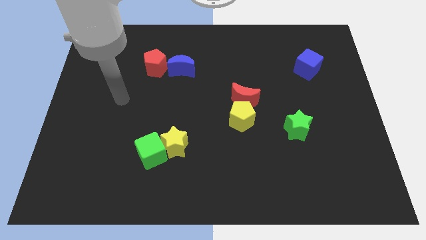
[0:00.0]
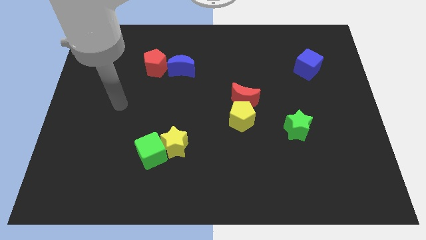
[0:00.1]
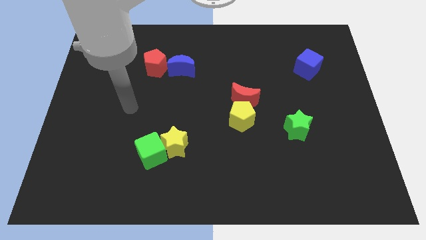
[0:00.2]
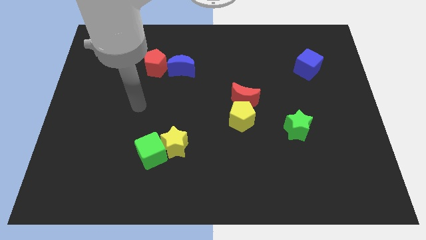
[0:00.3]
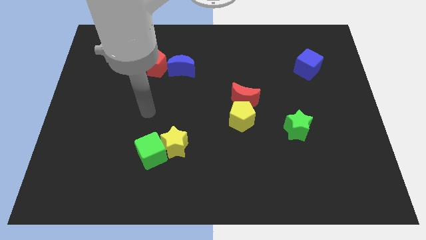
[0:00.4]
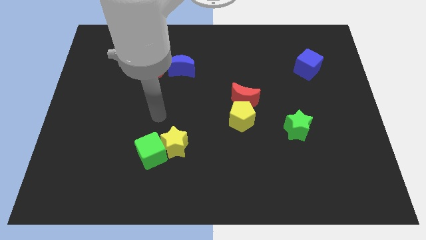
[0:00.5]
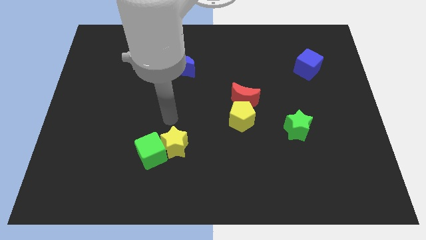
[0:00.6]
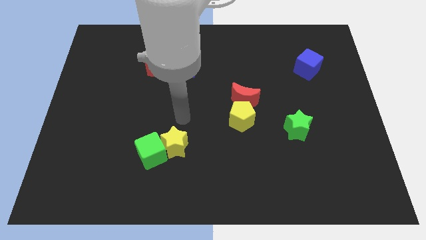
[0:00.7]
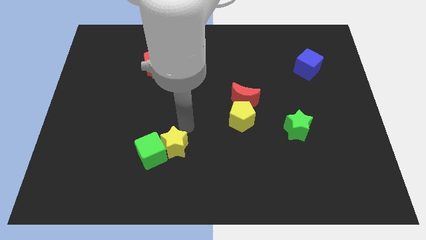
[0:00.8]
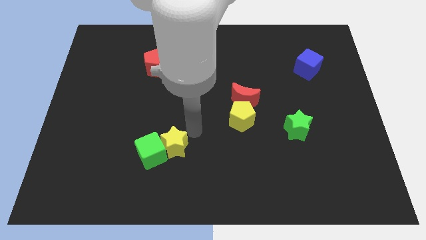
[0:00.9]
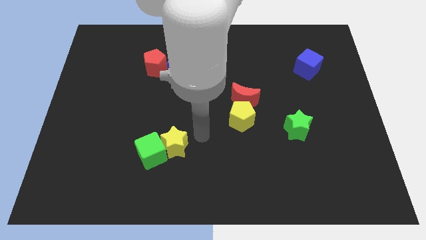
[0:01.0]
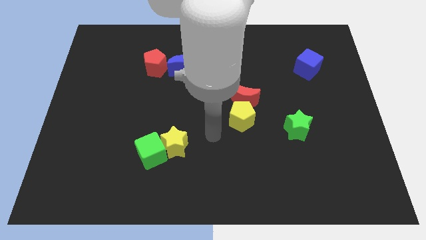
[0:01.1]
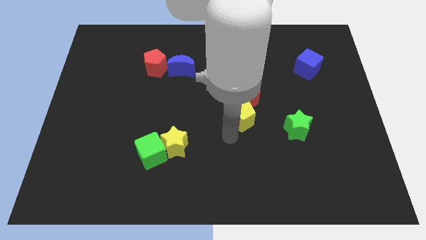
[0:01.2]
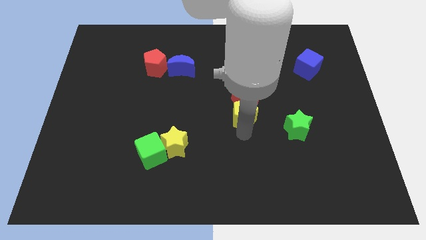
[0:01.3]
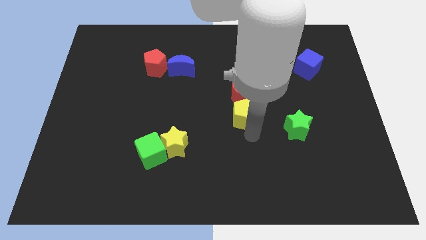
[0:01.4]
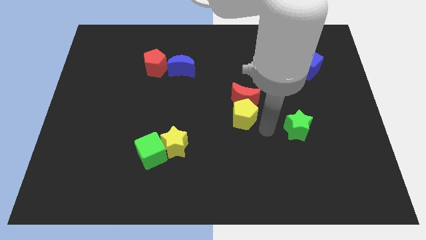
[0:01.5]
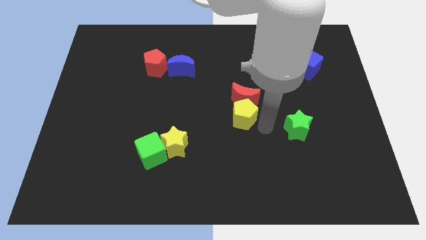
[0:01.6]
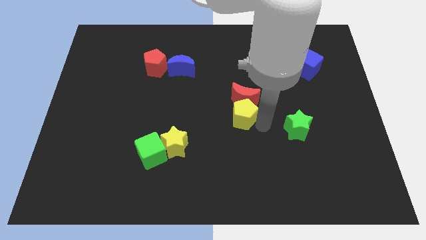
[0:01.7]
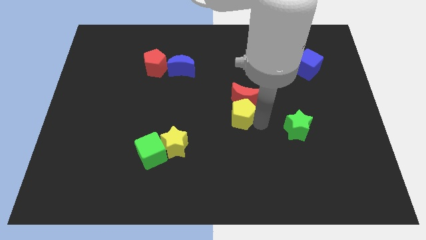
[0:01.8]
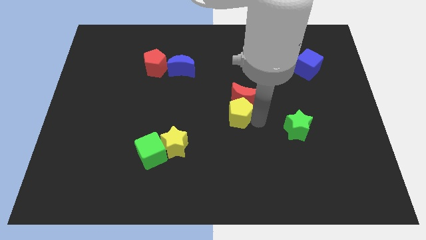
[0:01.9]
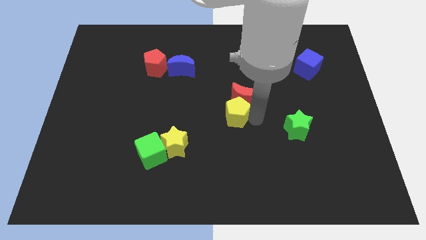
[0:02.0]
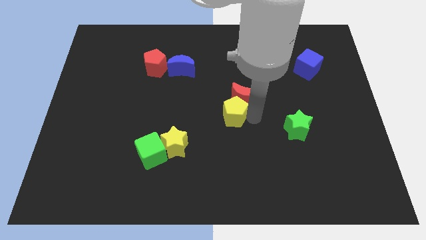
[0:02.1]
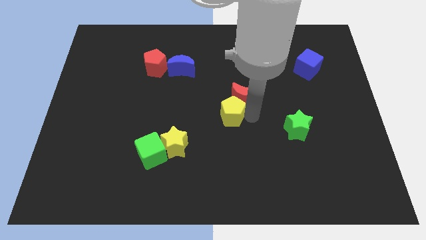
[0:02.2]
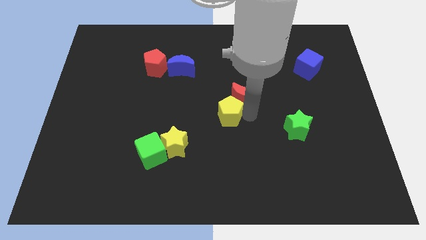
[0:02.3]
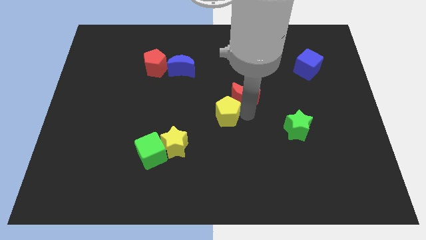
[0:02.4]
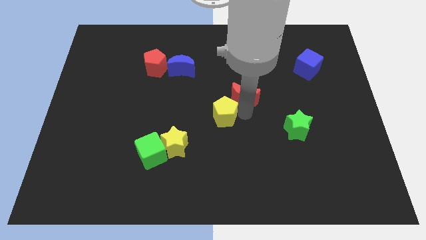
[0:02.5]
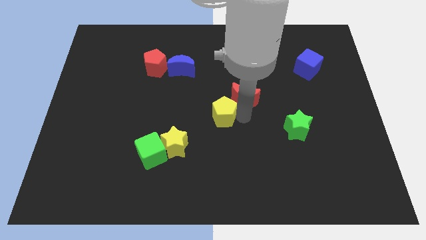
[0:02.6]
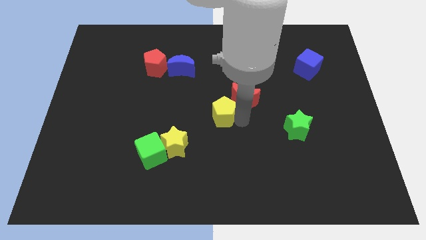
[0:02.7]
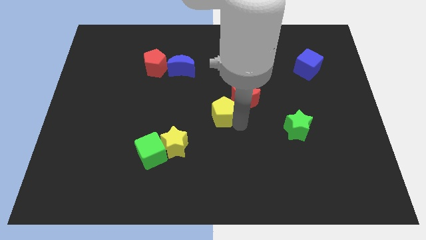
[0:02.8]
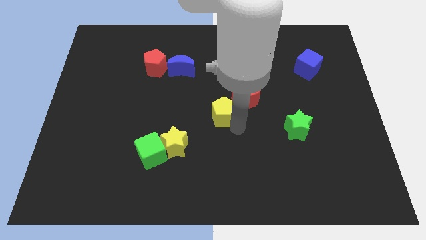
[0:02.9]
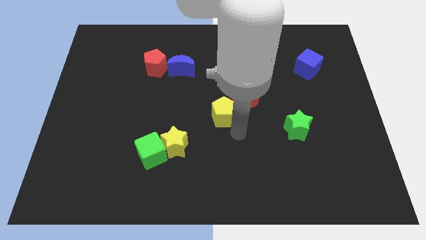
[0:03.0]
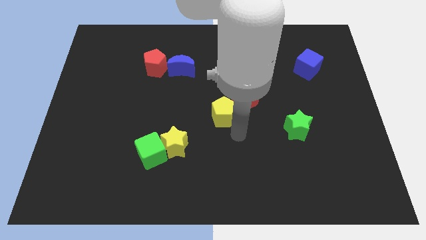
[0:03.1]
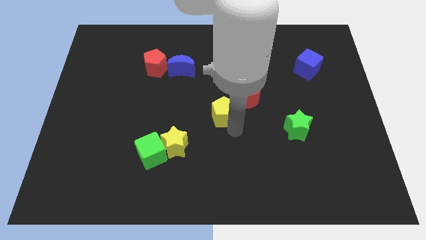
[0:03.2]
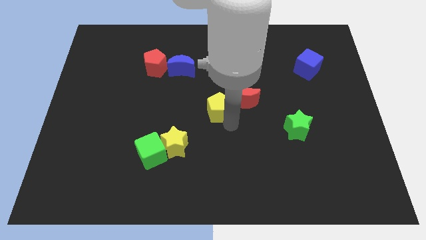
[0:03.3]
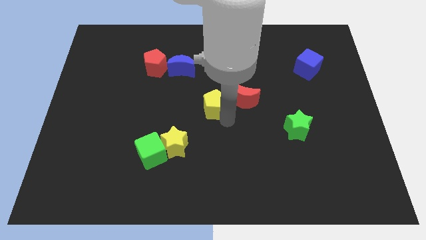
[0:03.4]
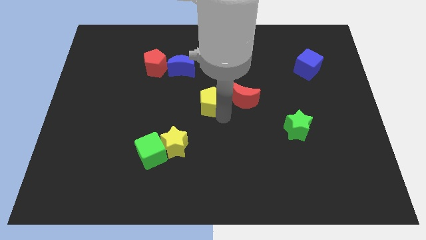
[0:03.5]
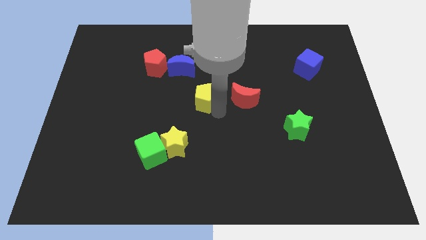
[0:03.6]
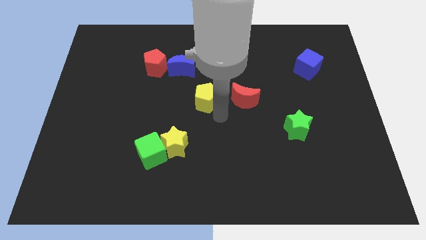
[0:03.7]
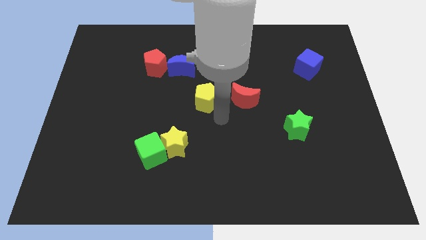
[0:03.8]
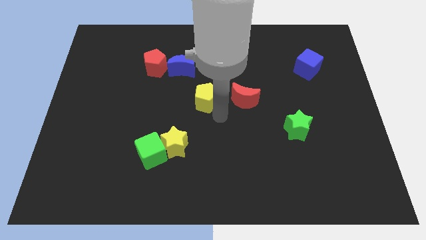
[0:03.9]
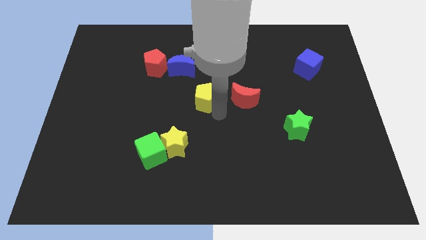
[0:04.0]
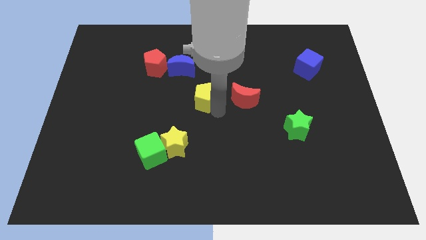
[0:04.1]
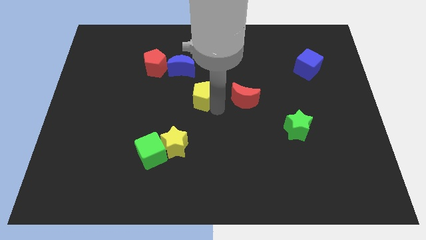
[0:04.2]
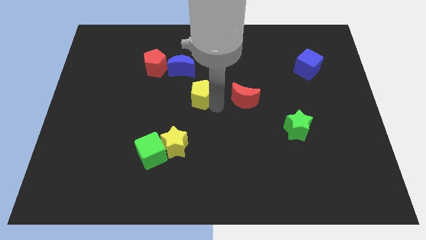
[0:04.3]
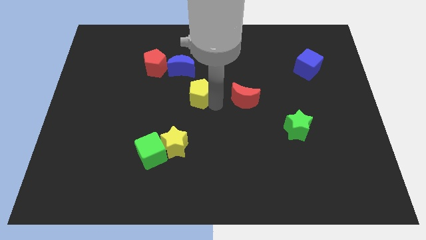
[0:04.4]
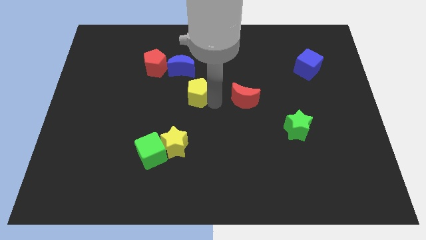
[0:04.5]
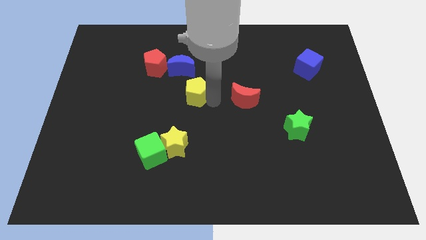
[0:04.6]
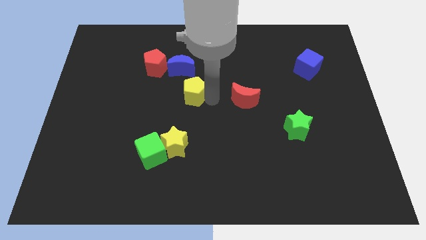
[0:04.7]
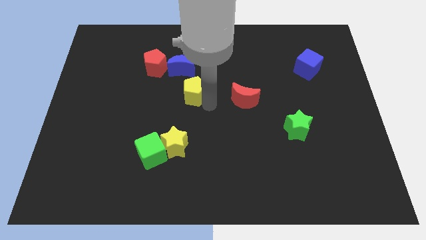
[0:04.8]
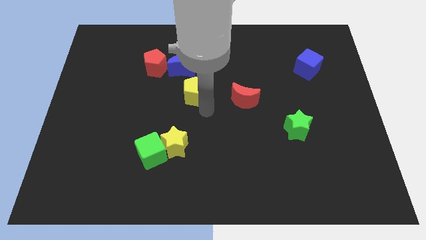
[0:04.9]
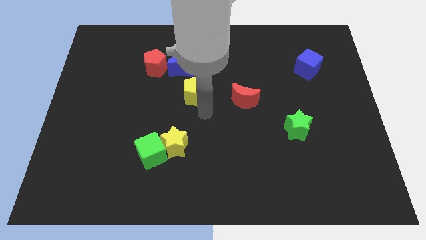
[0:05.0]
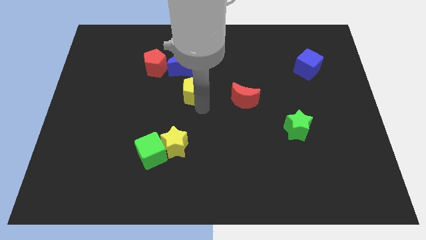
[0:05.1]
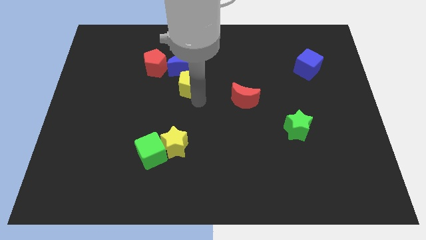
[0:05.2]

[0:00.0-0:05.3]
slide the yellow pentagon close to the blue moon

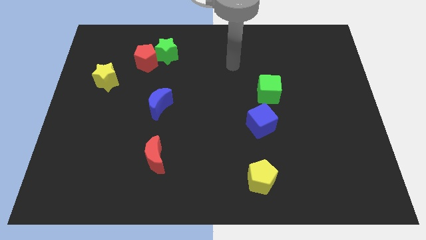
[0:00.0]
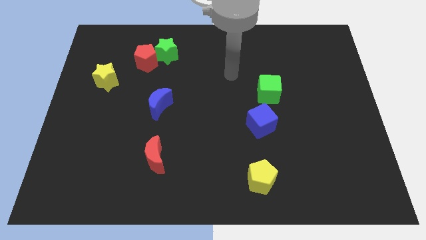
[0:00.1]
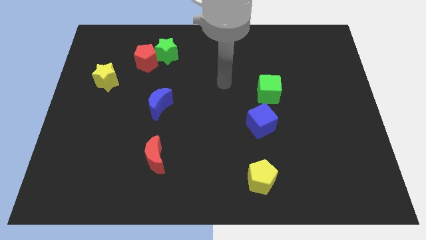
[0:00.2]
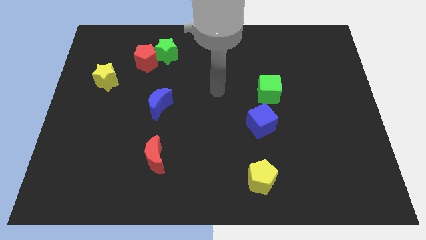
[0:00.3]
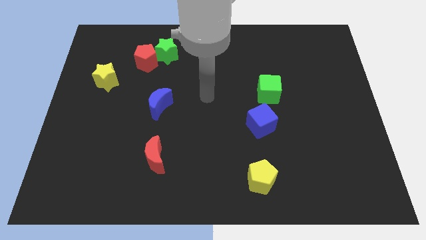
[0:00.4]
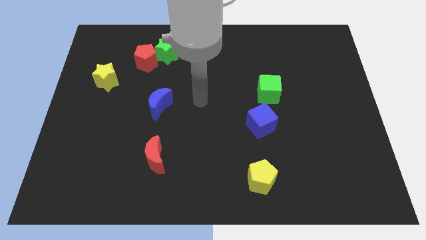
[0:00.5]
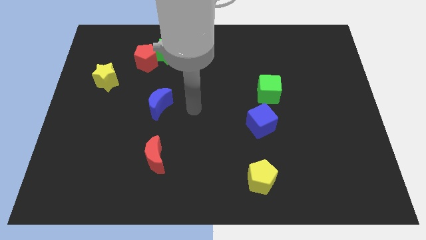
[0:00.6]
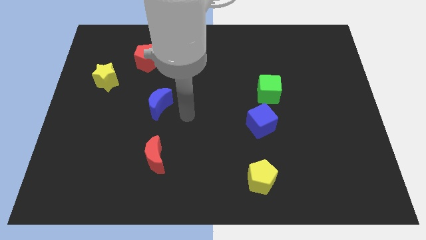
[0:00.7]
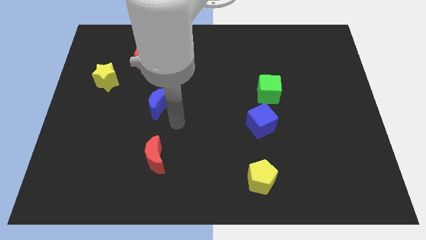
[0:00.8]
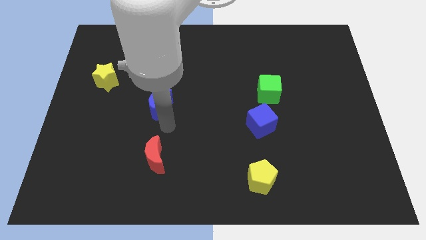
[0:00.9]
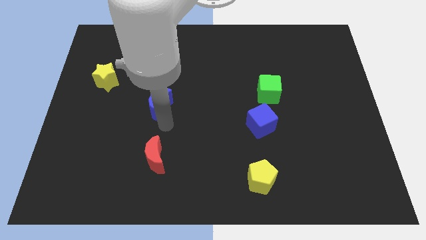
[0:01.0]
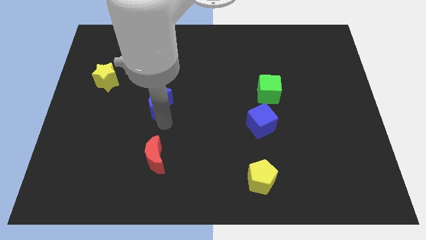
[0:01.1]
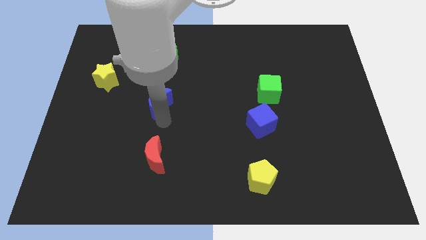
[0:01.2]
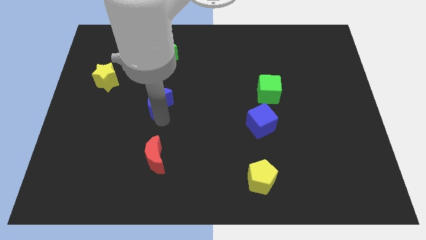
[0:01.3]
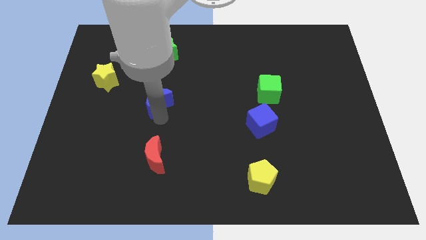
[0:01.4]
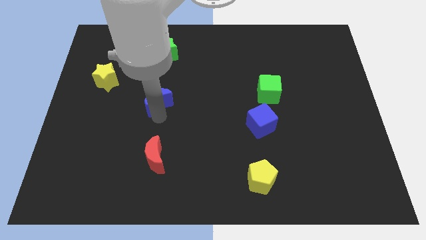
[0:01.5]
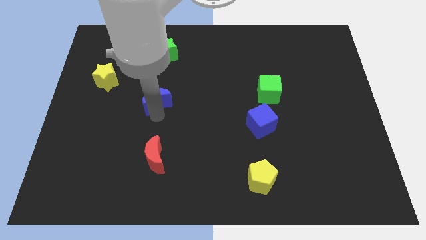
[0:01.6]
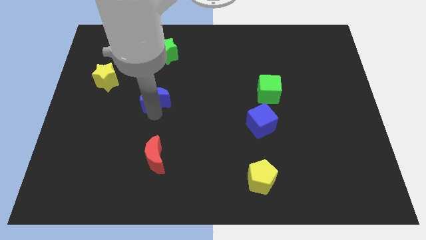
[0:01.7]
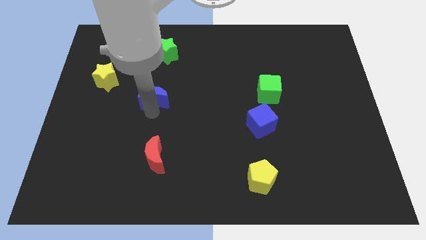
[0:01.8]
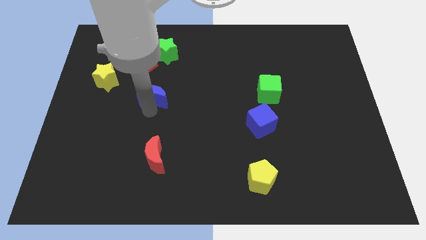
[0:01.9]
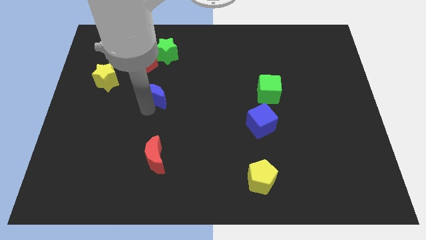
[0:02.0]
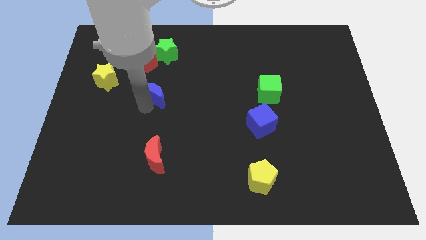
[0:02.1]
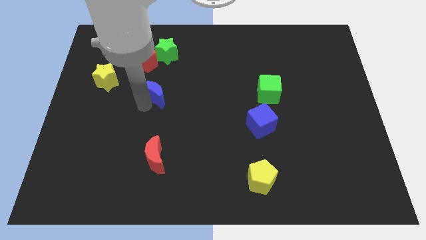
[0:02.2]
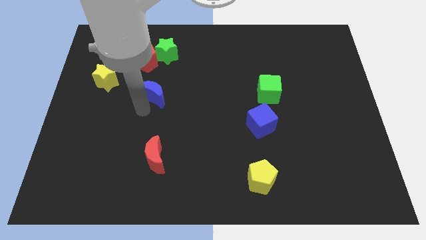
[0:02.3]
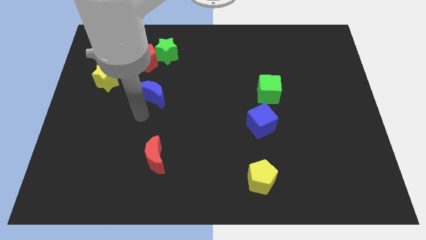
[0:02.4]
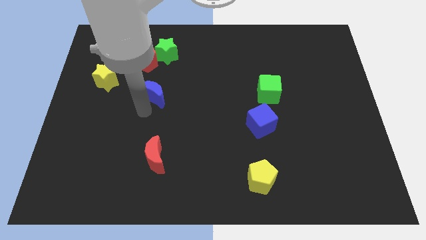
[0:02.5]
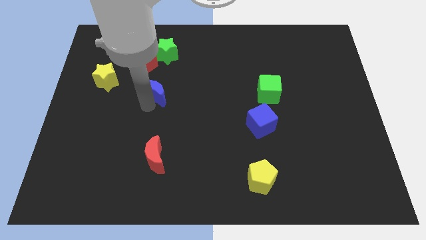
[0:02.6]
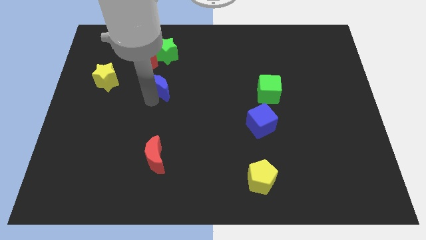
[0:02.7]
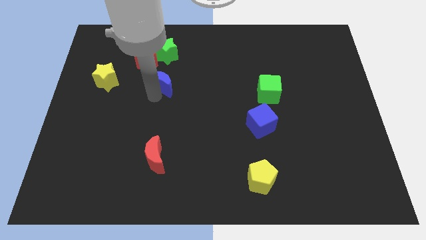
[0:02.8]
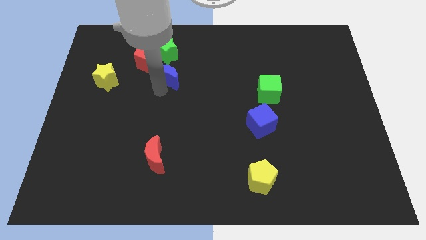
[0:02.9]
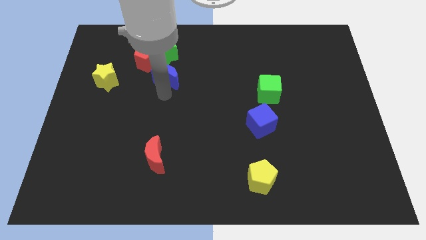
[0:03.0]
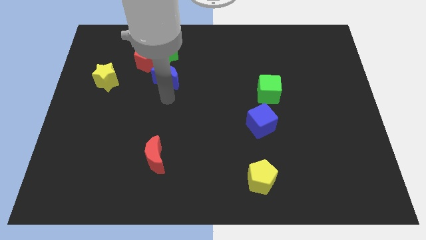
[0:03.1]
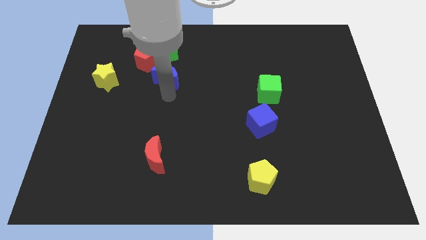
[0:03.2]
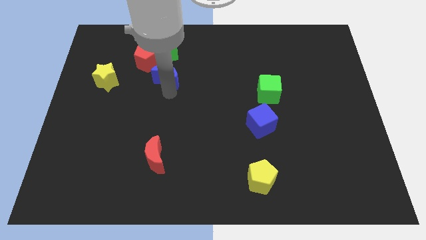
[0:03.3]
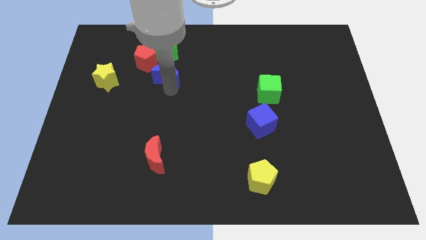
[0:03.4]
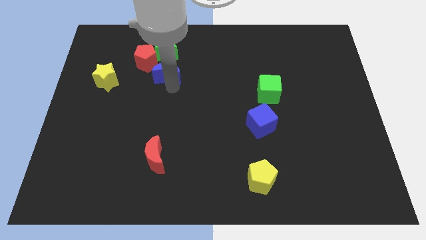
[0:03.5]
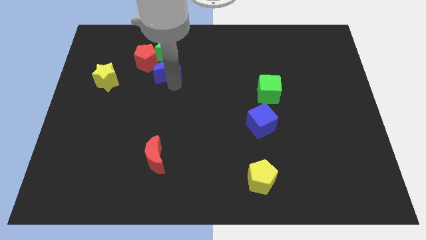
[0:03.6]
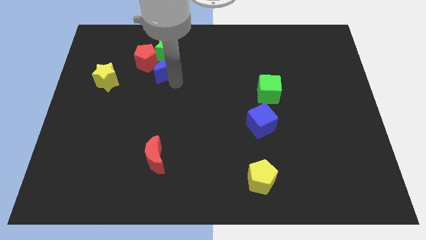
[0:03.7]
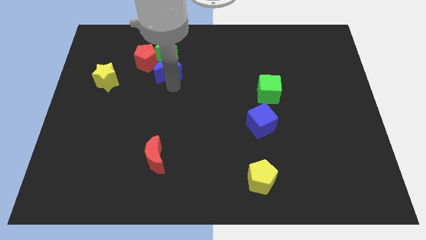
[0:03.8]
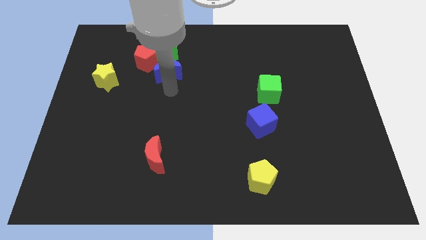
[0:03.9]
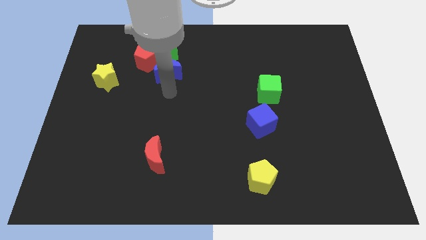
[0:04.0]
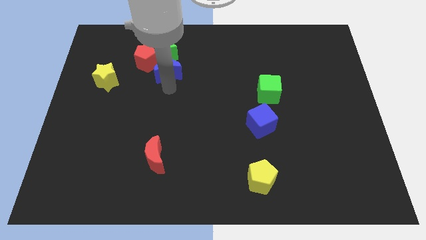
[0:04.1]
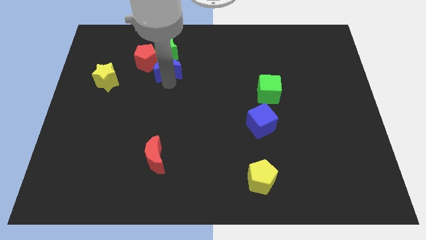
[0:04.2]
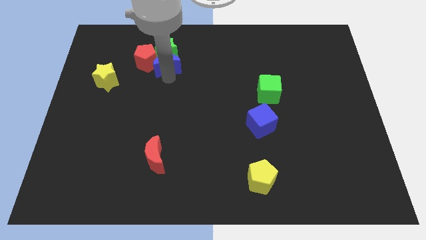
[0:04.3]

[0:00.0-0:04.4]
move the blue moon to the green star
